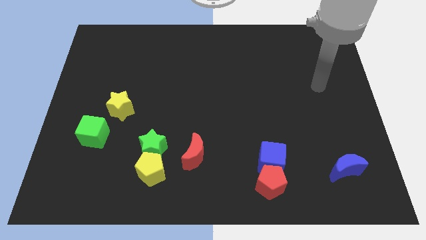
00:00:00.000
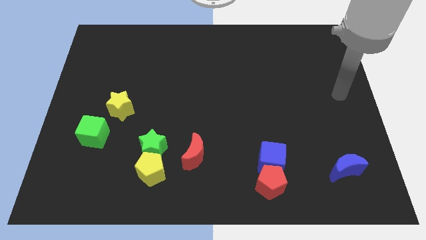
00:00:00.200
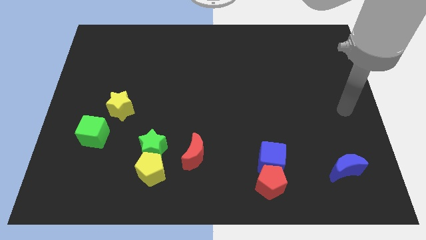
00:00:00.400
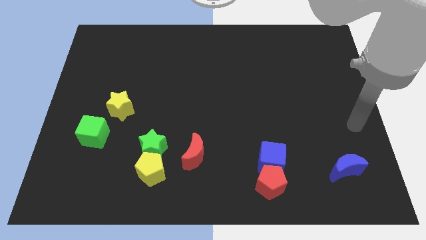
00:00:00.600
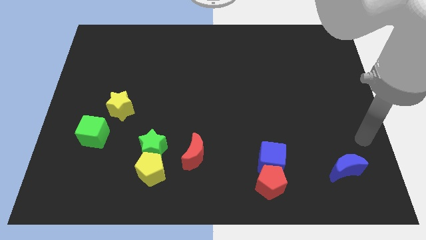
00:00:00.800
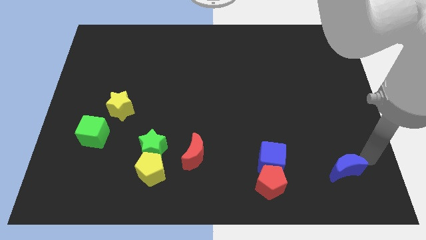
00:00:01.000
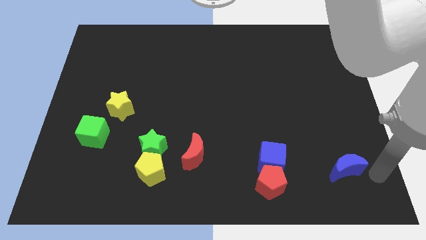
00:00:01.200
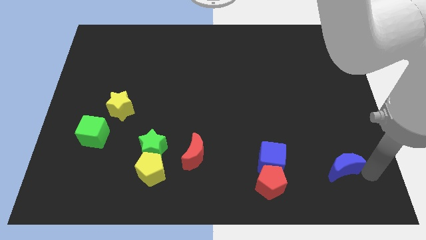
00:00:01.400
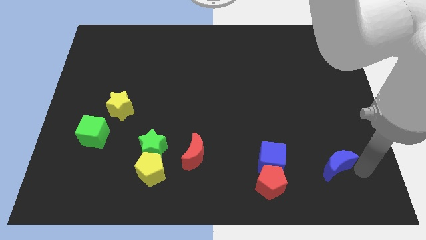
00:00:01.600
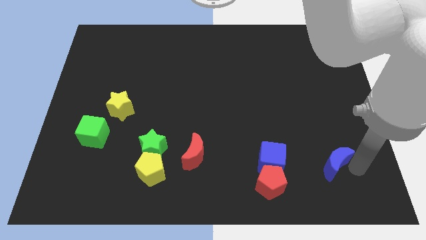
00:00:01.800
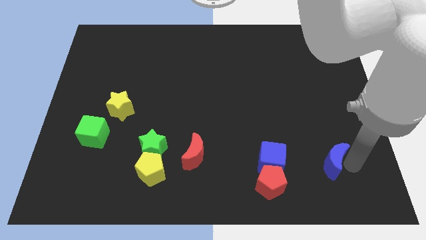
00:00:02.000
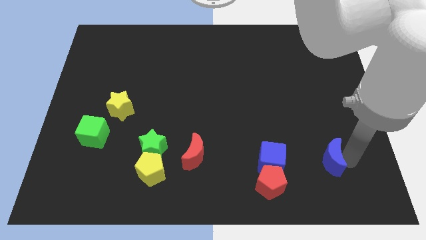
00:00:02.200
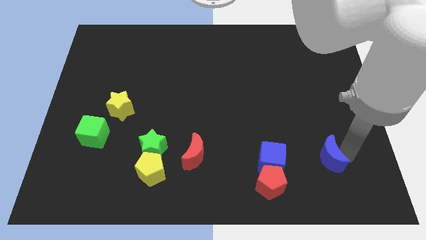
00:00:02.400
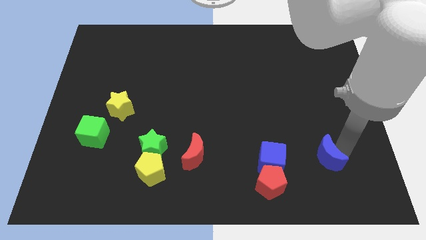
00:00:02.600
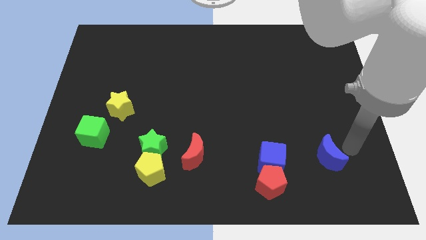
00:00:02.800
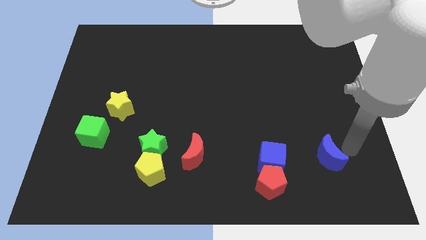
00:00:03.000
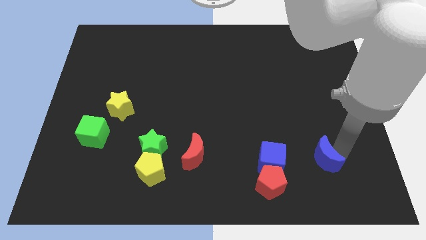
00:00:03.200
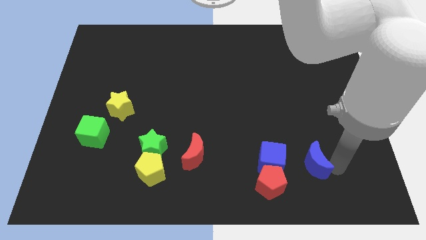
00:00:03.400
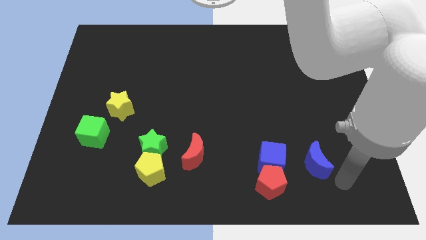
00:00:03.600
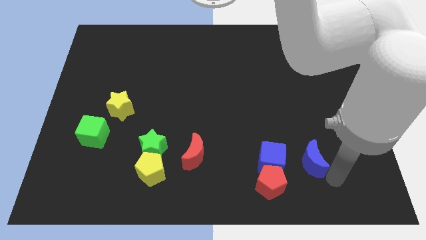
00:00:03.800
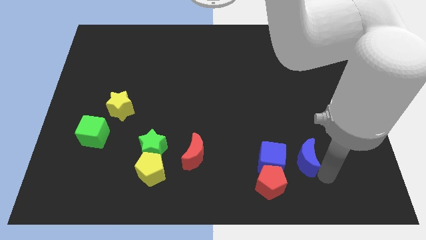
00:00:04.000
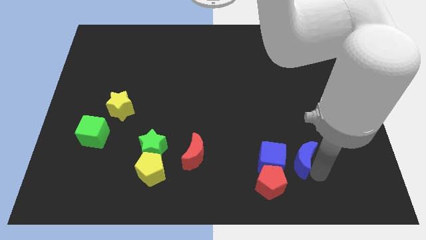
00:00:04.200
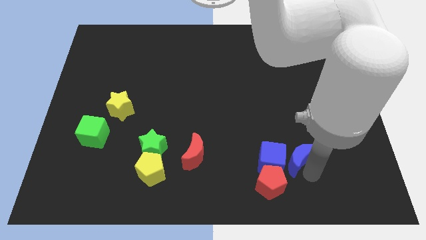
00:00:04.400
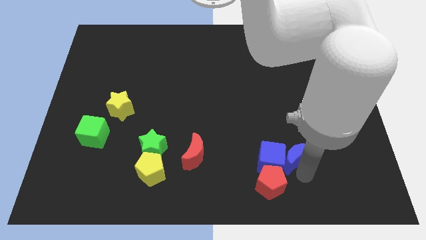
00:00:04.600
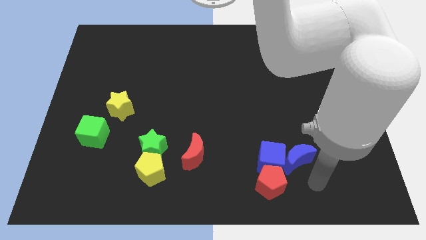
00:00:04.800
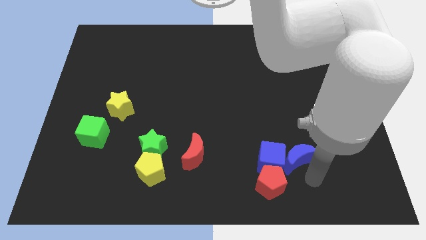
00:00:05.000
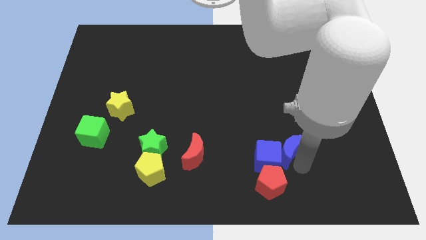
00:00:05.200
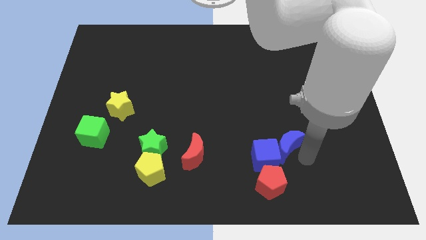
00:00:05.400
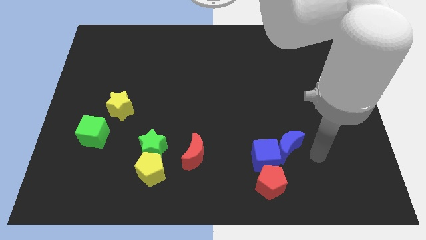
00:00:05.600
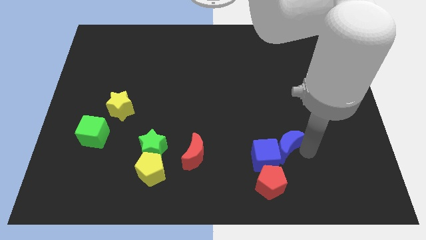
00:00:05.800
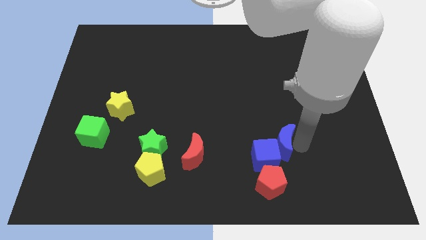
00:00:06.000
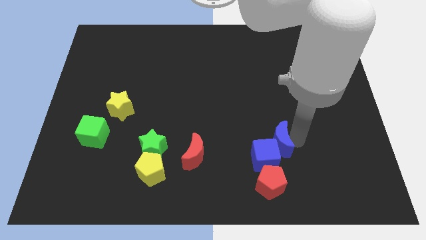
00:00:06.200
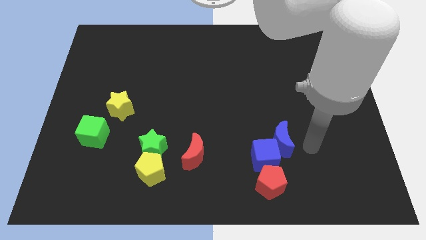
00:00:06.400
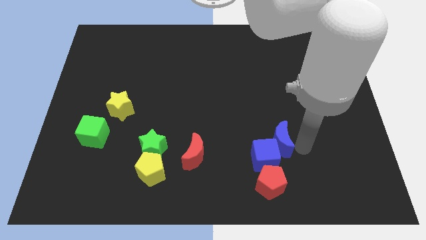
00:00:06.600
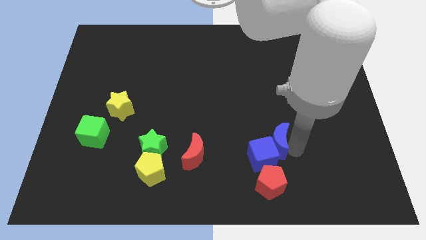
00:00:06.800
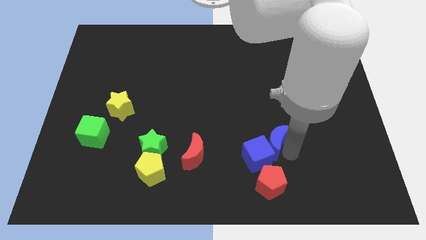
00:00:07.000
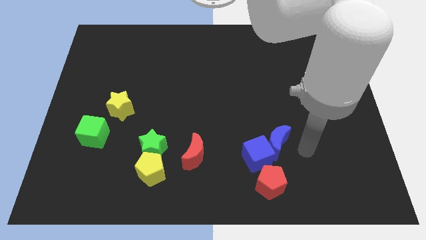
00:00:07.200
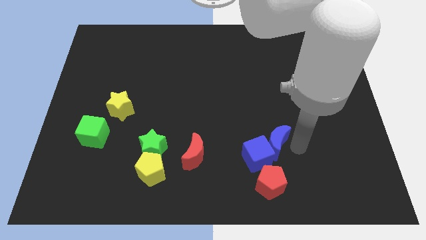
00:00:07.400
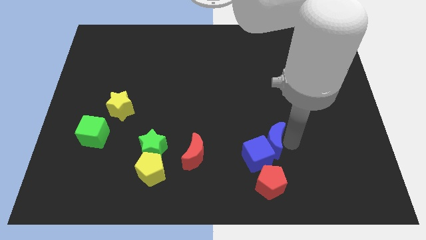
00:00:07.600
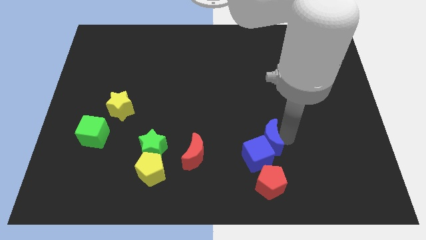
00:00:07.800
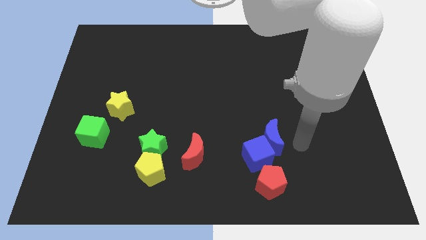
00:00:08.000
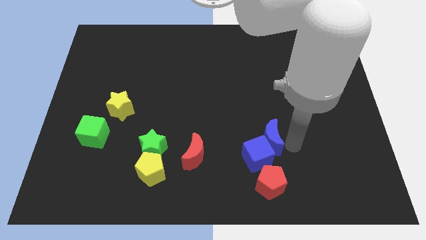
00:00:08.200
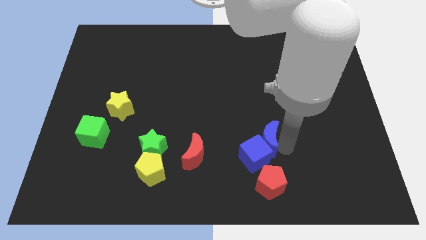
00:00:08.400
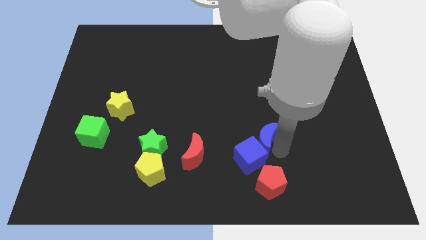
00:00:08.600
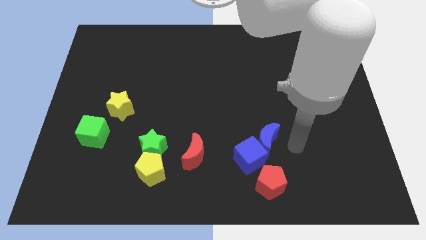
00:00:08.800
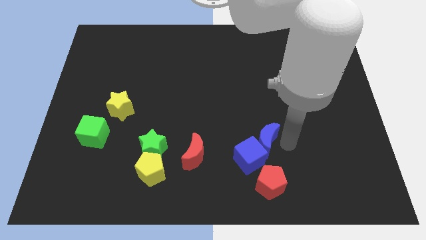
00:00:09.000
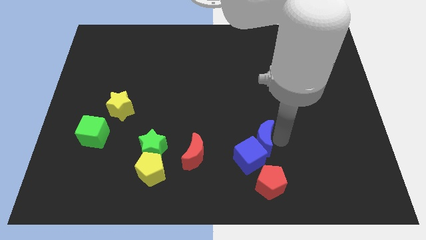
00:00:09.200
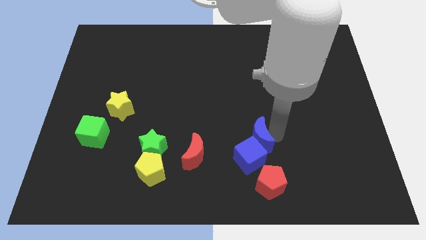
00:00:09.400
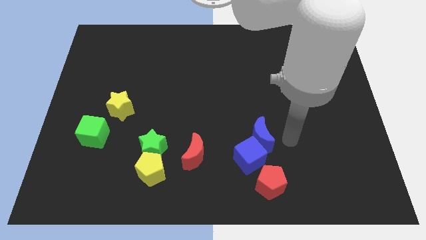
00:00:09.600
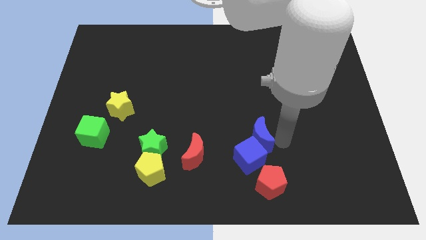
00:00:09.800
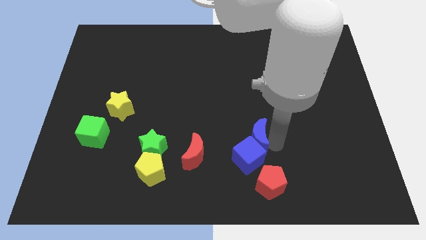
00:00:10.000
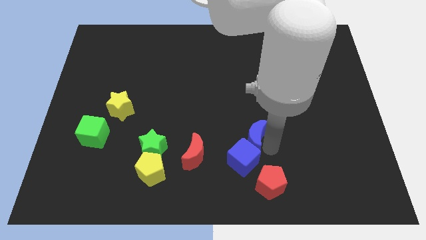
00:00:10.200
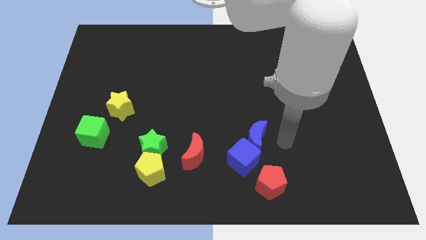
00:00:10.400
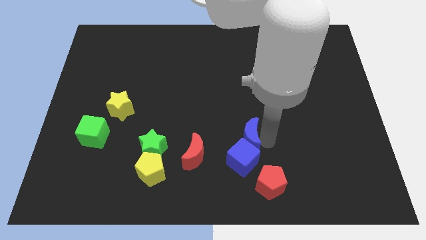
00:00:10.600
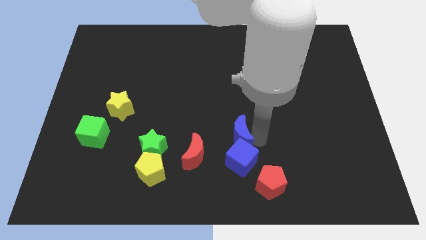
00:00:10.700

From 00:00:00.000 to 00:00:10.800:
push the blue moon diagonally up and to the left of the blue cube

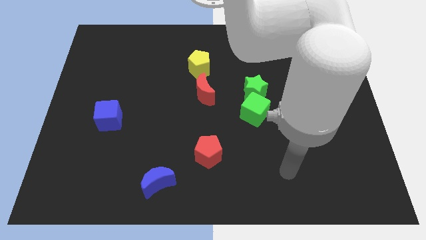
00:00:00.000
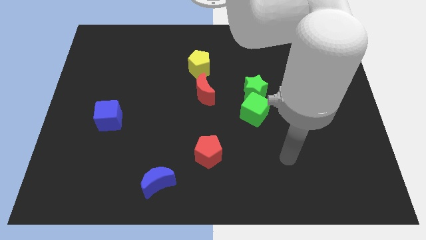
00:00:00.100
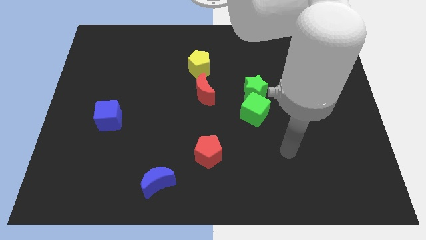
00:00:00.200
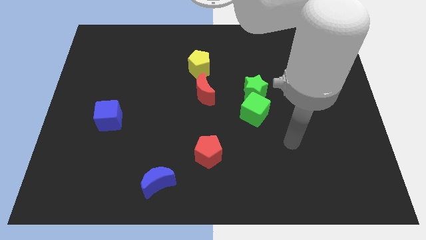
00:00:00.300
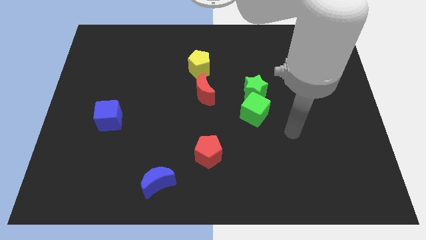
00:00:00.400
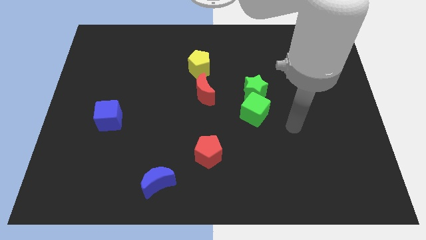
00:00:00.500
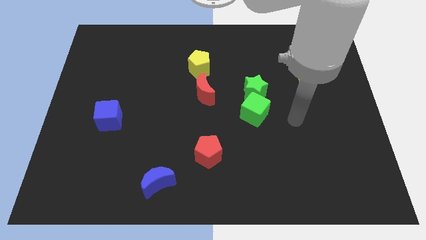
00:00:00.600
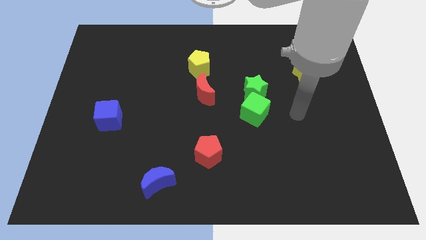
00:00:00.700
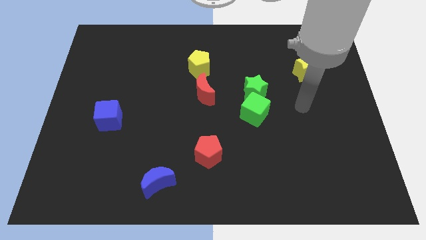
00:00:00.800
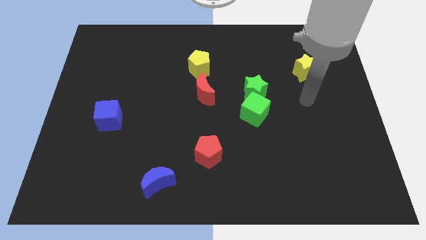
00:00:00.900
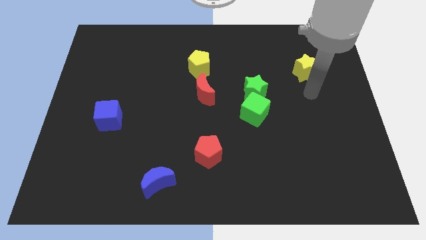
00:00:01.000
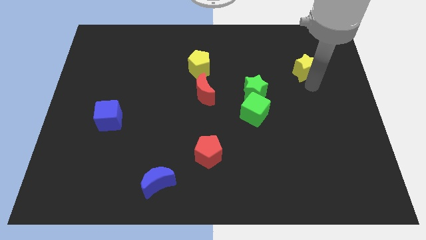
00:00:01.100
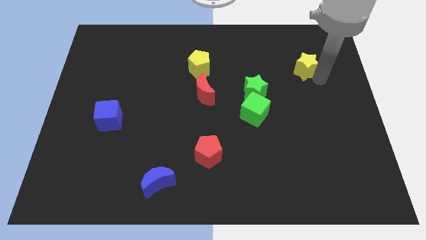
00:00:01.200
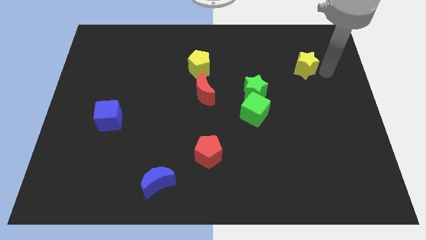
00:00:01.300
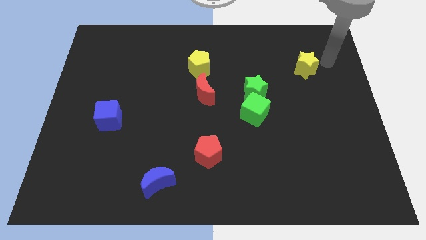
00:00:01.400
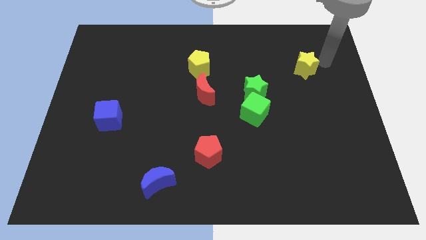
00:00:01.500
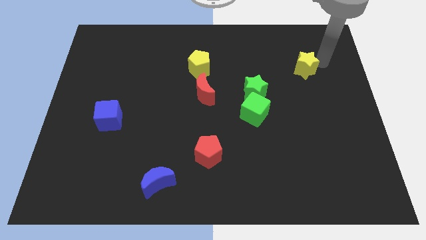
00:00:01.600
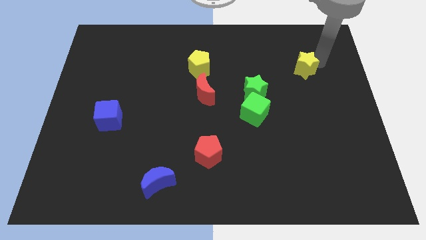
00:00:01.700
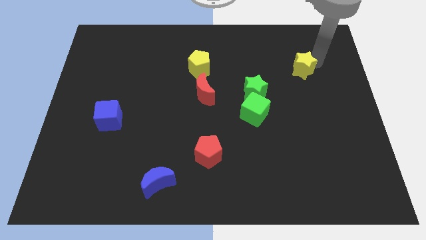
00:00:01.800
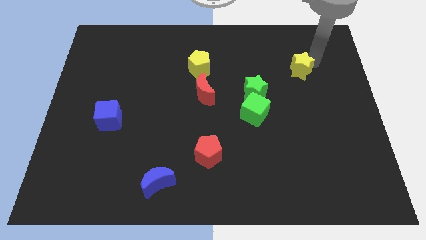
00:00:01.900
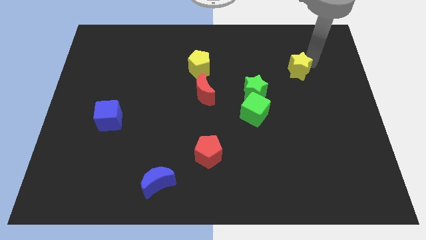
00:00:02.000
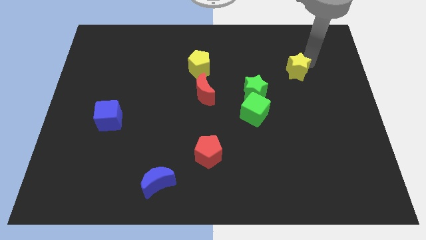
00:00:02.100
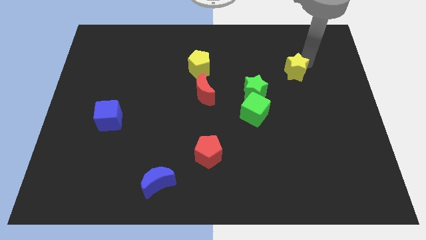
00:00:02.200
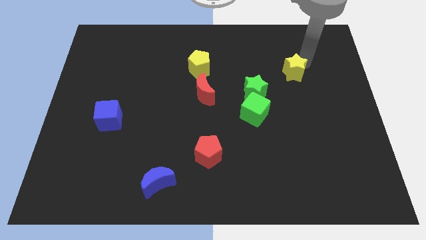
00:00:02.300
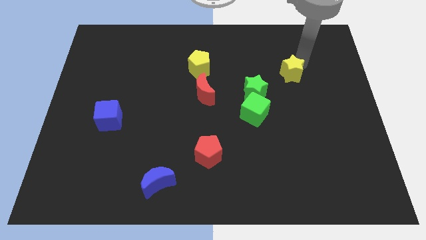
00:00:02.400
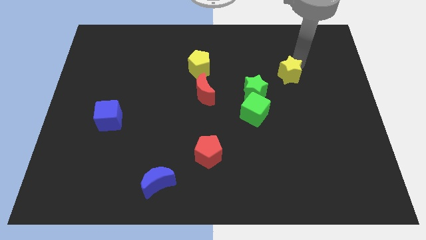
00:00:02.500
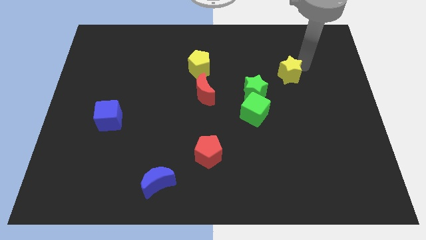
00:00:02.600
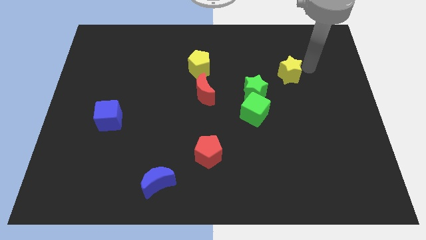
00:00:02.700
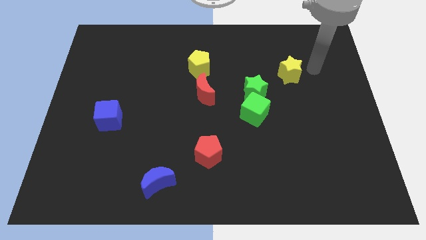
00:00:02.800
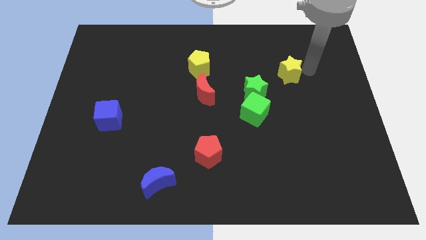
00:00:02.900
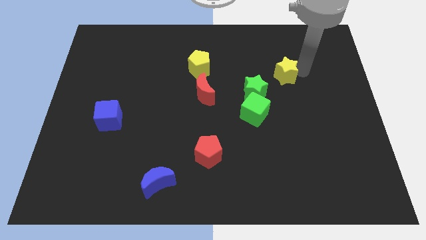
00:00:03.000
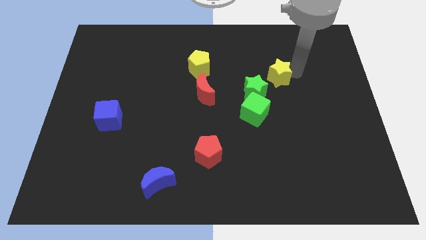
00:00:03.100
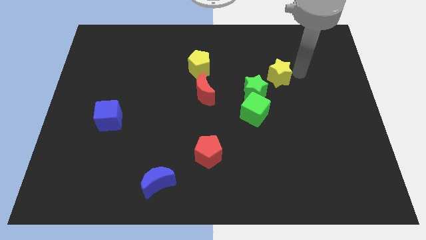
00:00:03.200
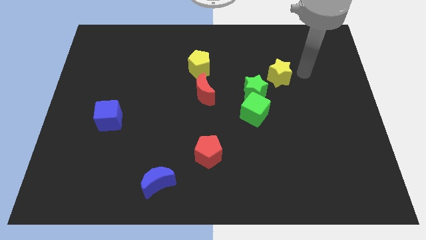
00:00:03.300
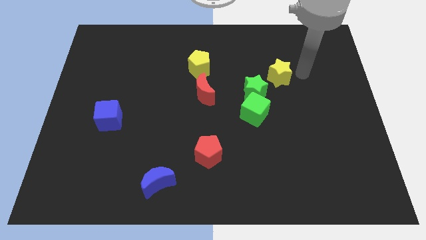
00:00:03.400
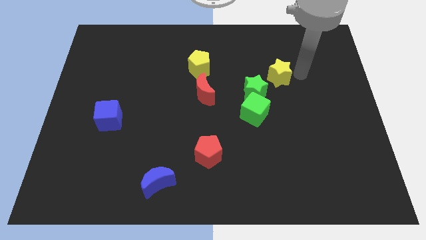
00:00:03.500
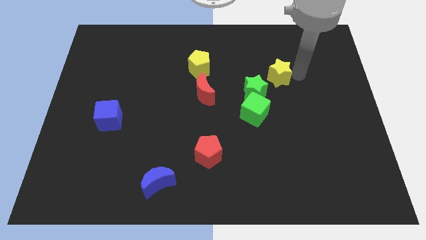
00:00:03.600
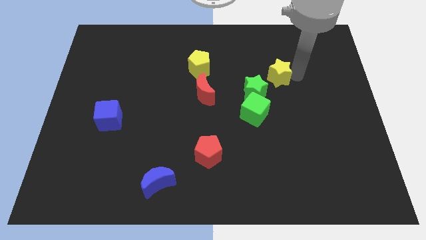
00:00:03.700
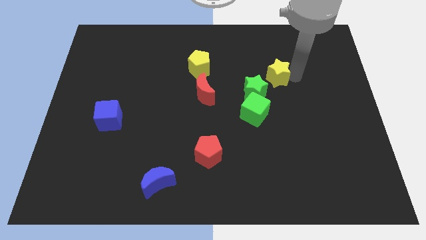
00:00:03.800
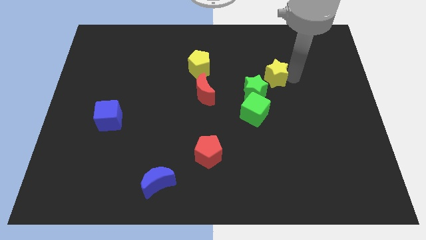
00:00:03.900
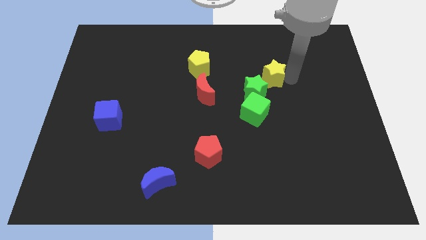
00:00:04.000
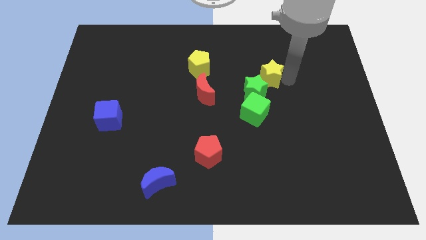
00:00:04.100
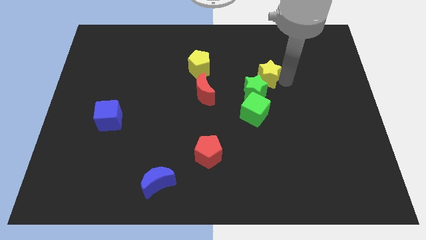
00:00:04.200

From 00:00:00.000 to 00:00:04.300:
put the yellow star to the top side of the green cube
